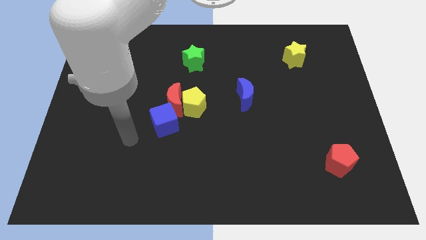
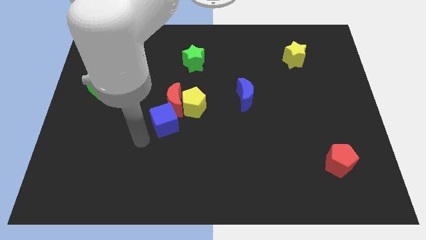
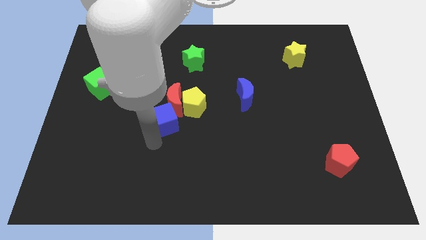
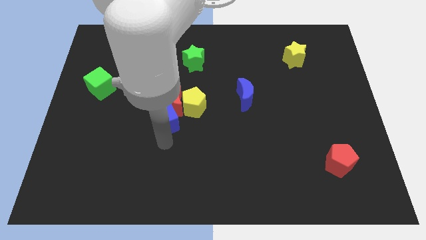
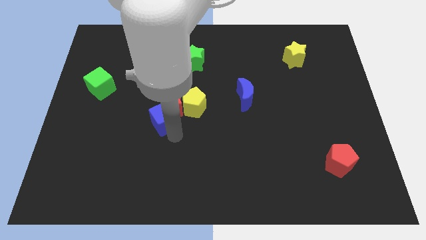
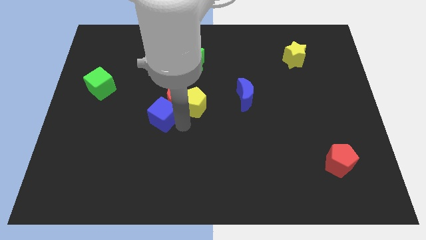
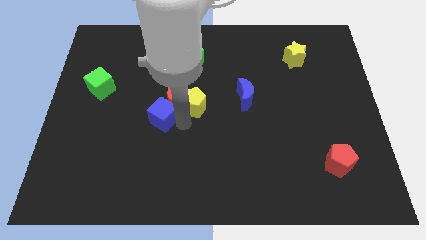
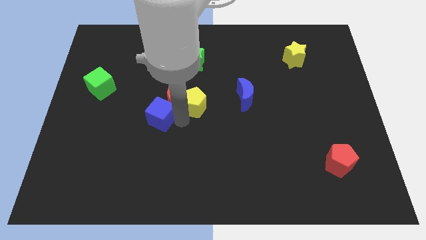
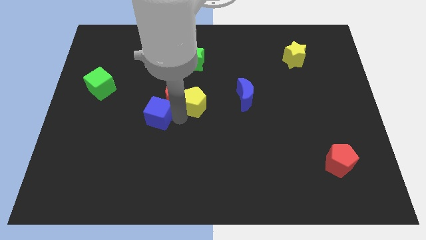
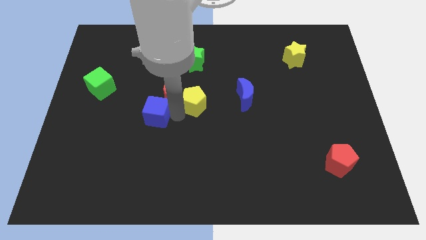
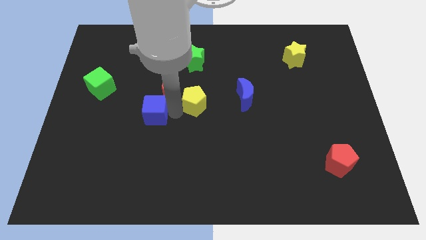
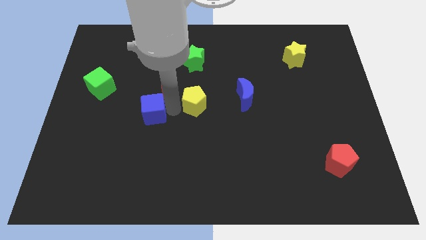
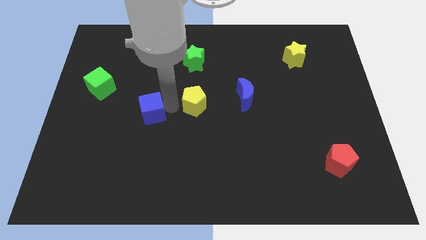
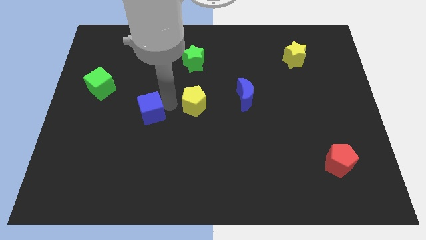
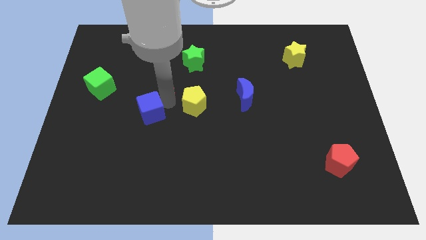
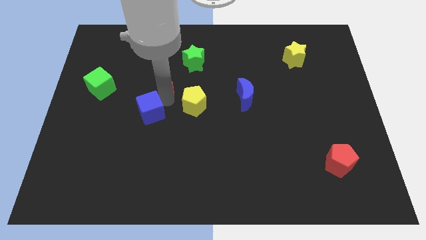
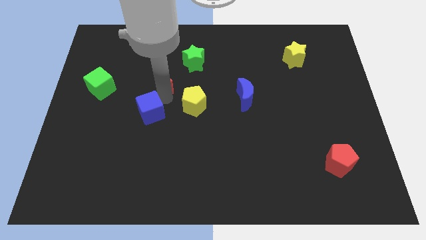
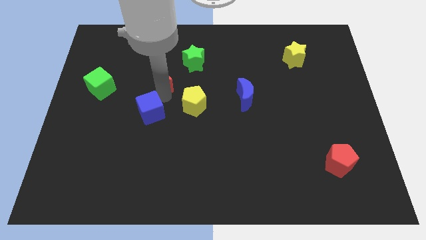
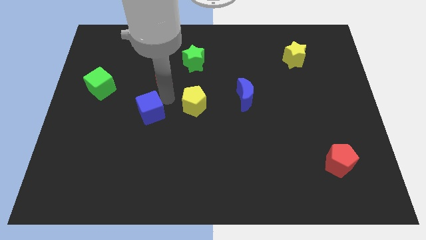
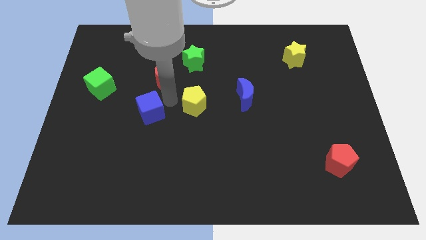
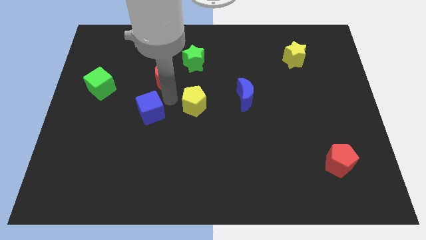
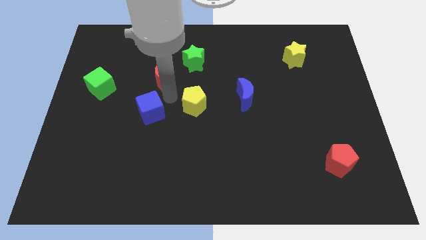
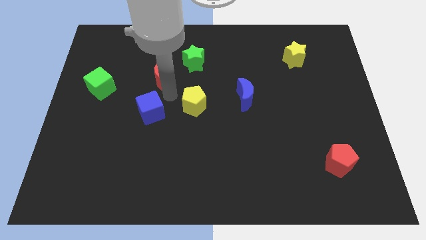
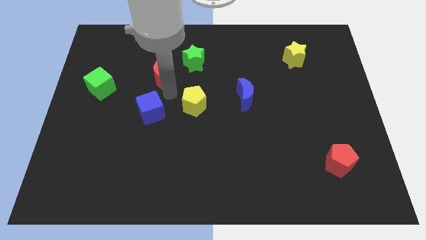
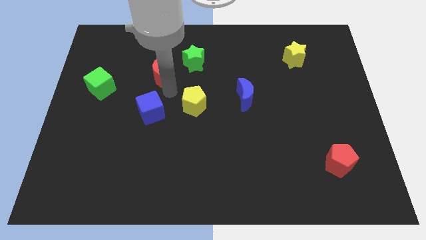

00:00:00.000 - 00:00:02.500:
move the red moon away from the yellow pentagon and blue cube

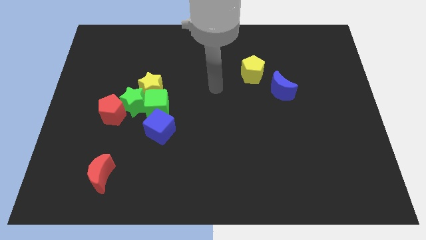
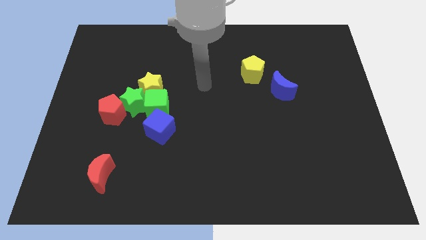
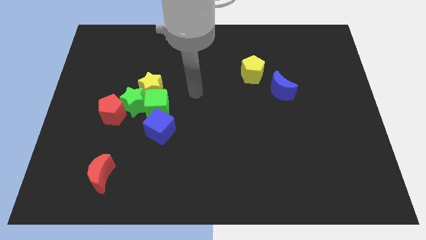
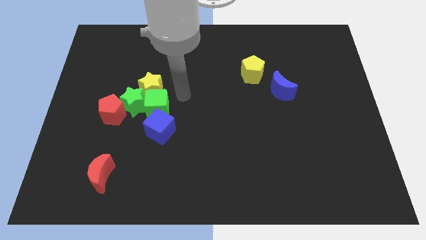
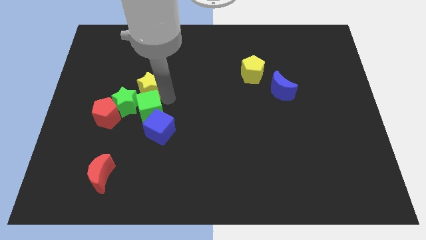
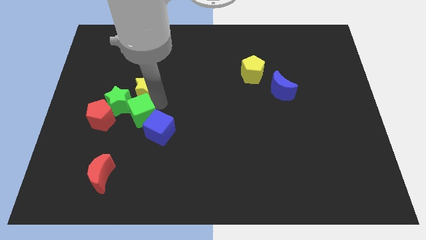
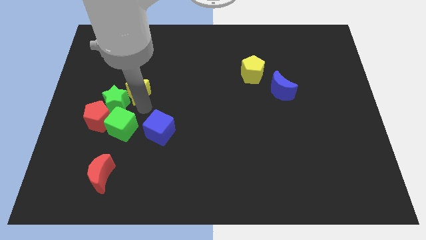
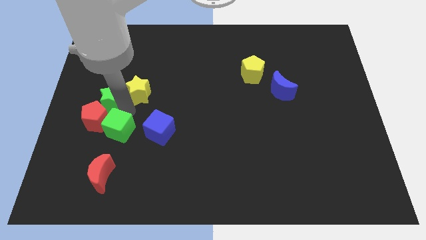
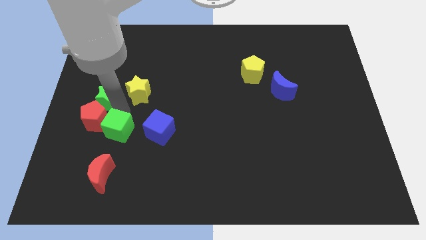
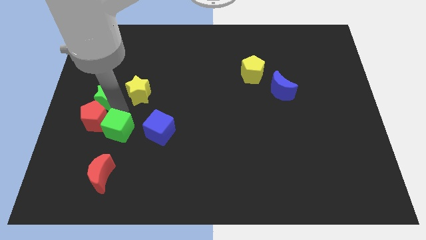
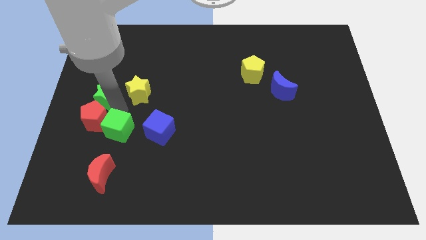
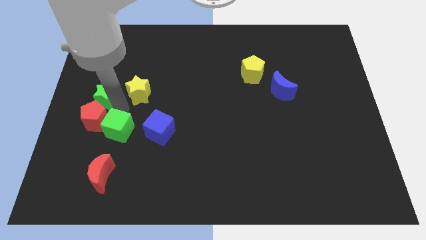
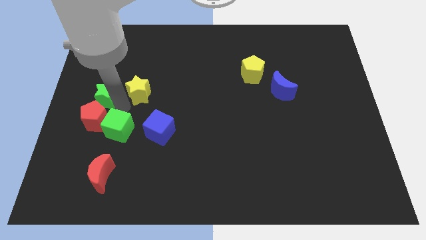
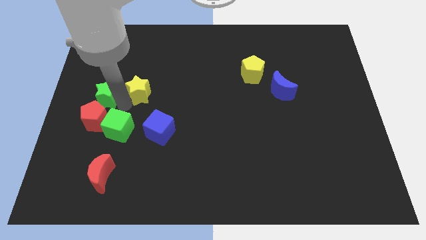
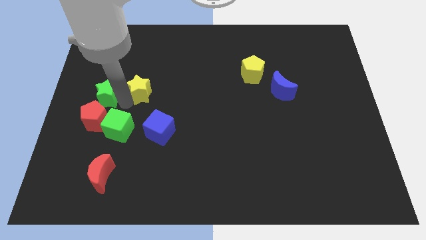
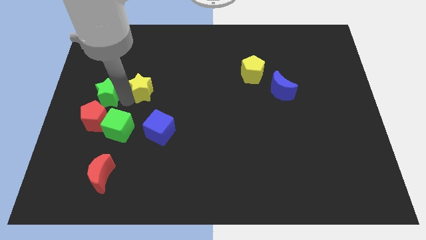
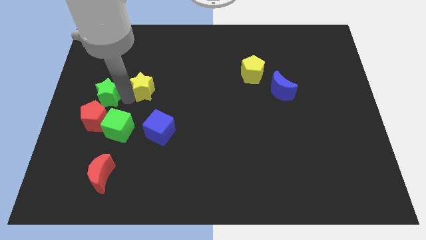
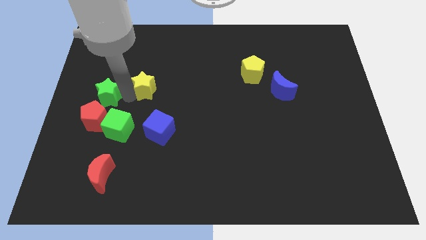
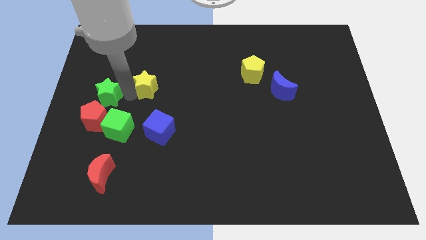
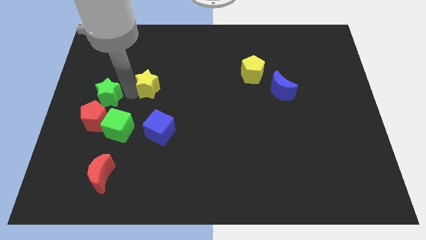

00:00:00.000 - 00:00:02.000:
pull the yellow star apart from the green cube and green star

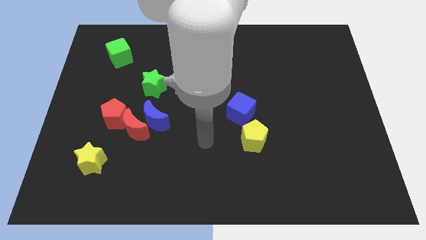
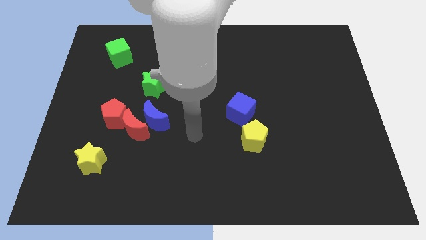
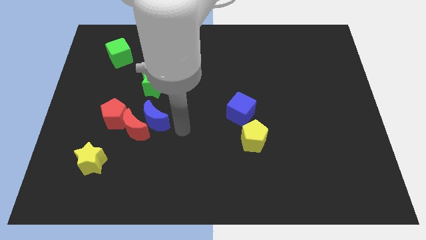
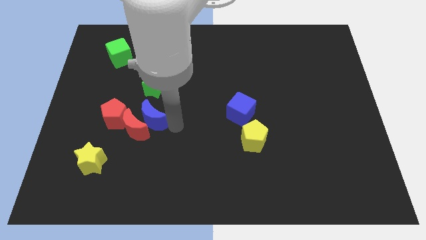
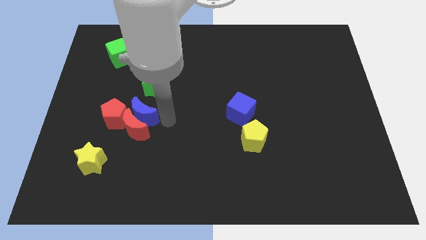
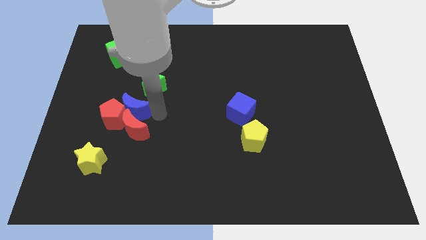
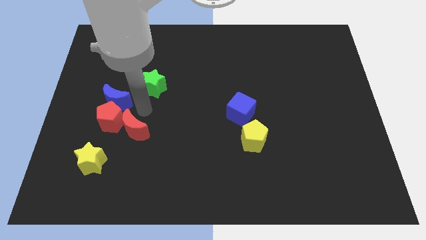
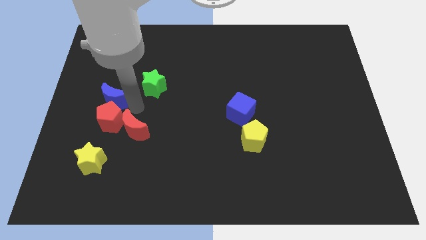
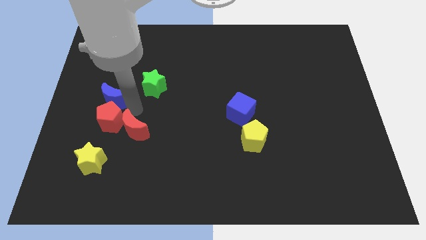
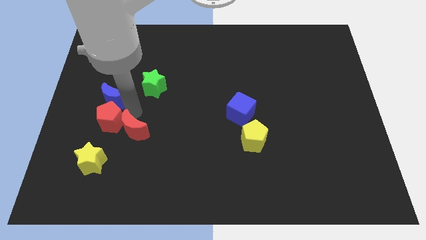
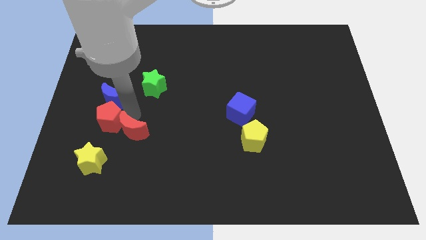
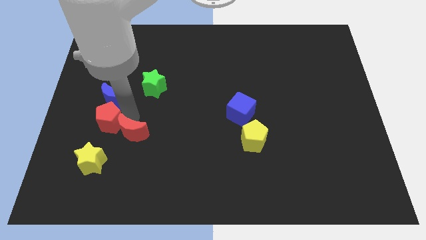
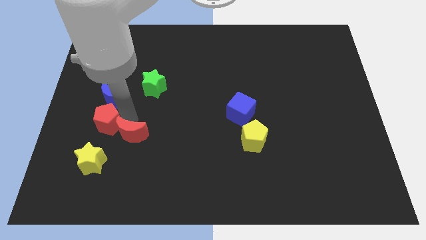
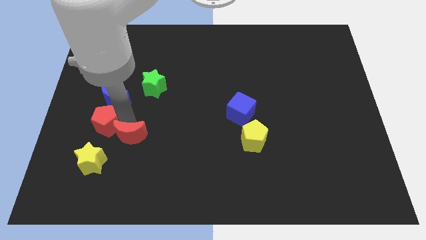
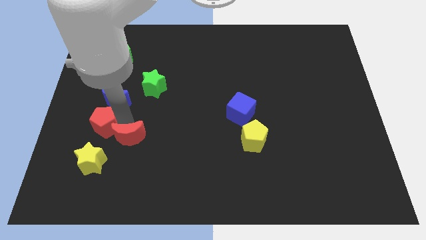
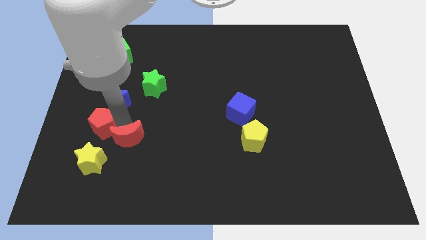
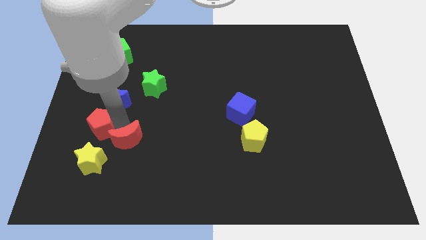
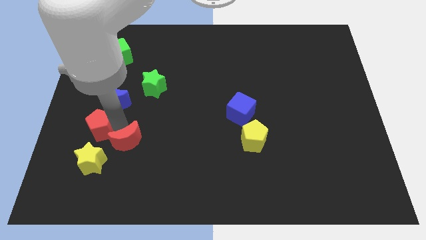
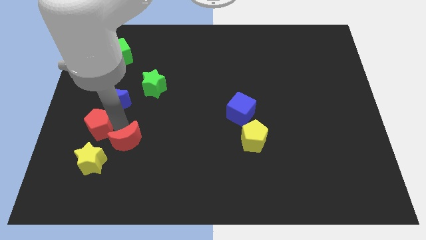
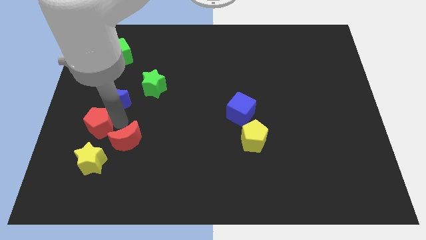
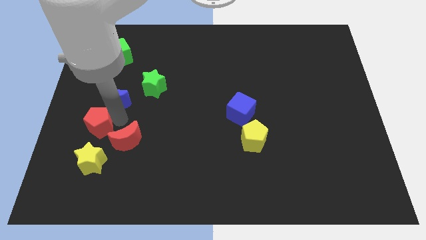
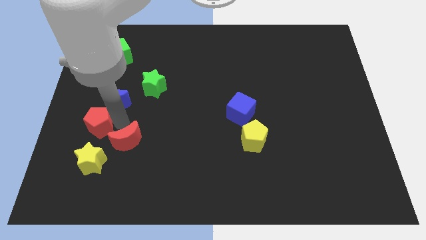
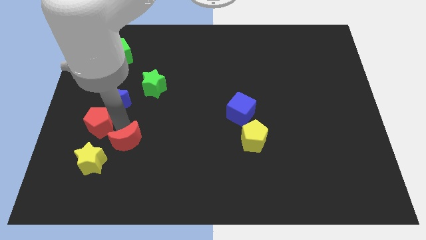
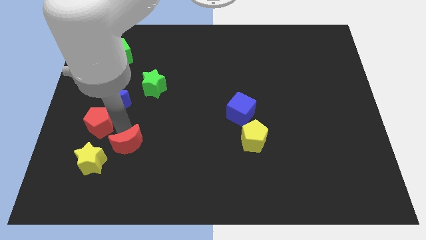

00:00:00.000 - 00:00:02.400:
separate the red moon from the blue moon and red pentagon

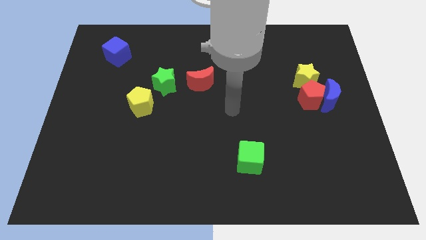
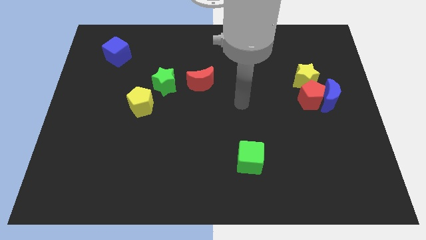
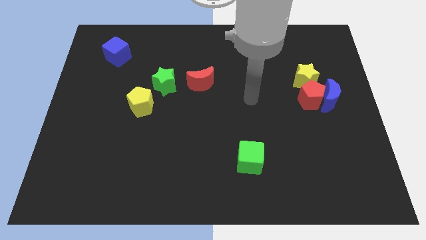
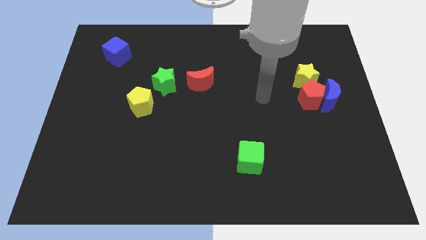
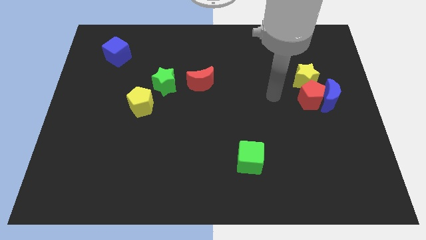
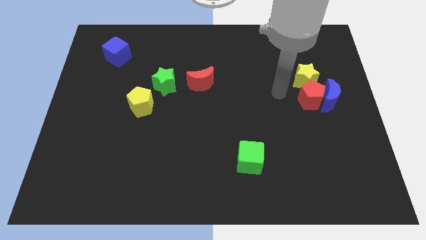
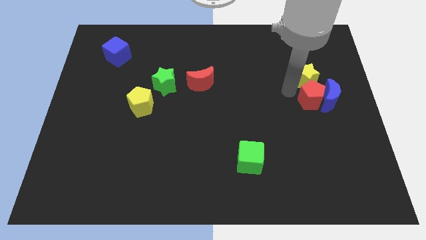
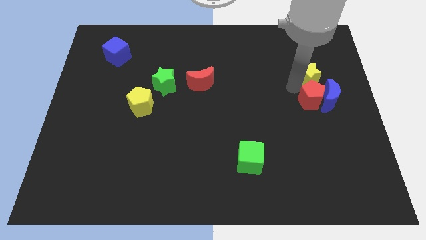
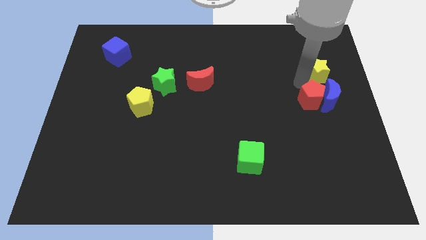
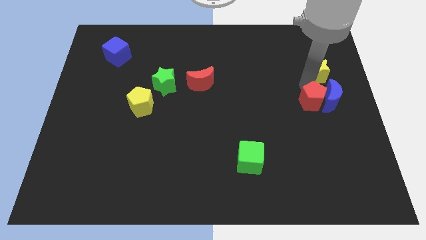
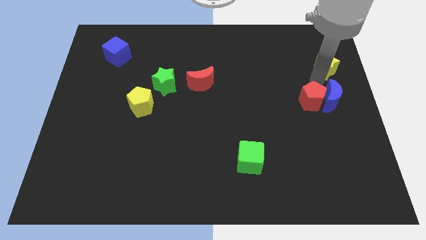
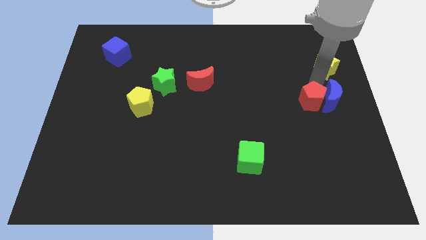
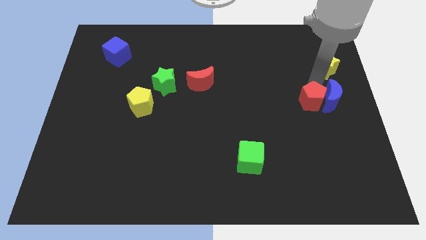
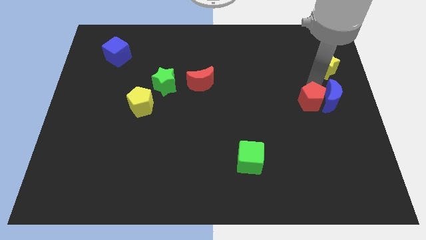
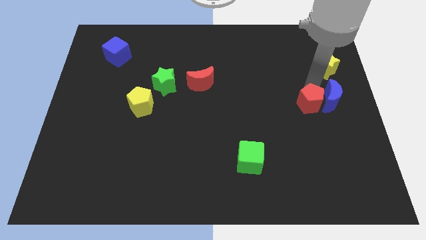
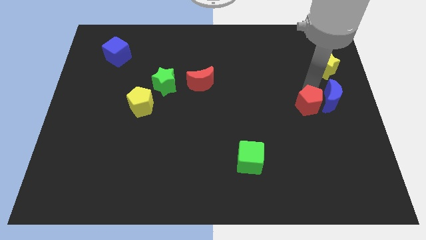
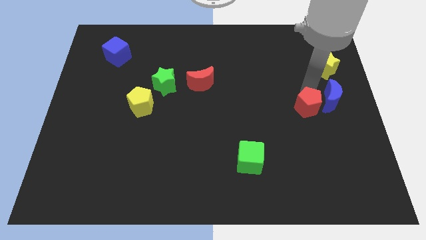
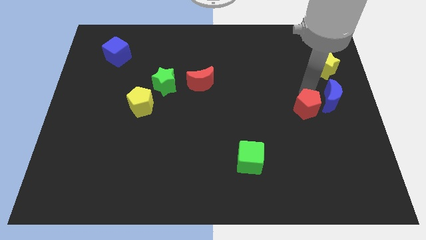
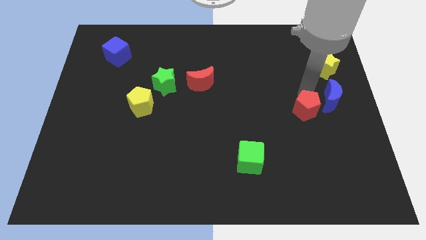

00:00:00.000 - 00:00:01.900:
pull the red pentagon apart from the blue moon and yellow star

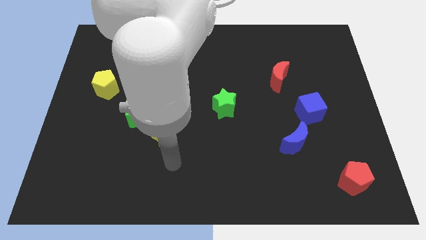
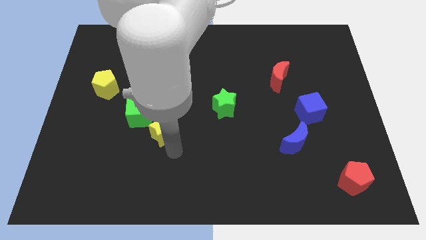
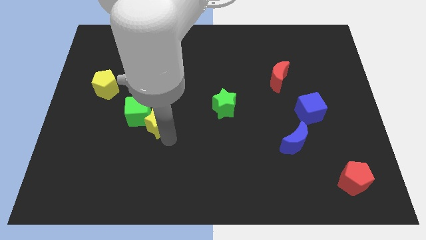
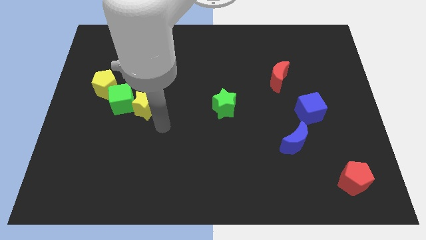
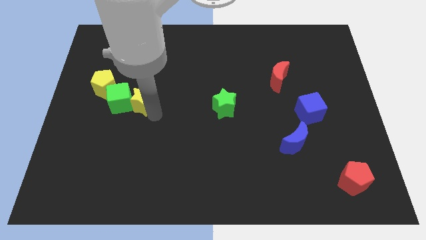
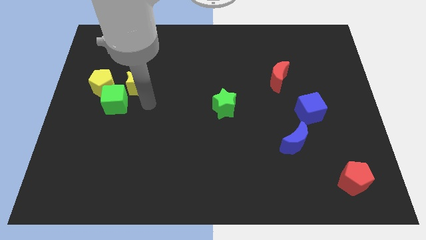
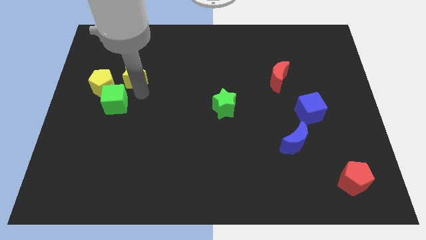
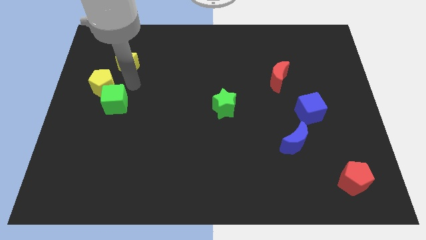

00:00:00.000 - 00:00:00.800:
move the green cube away from the yellow star
